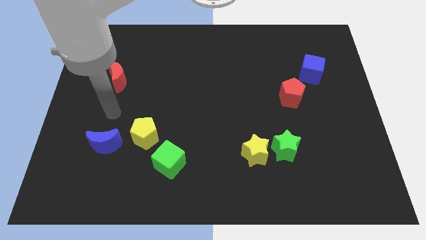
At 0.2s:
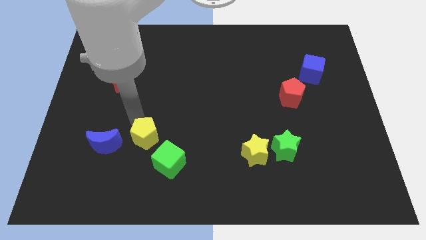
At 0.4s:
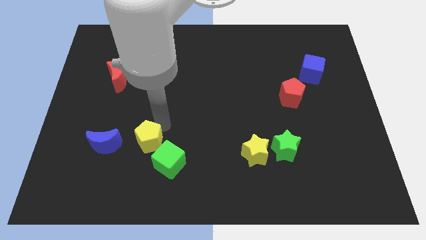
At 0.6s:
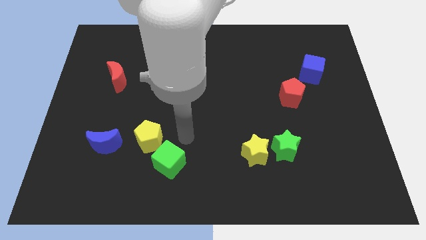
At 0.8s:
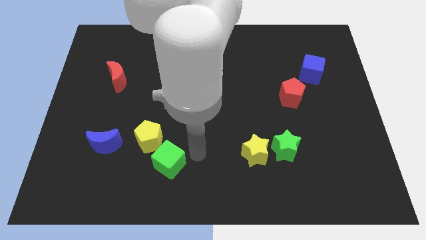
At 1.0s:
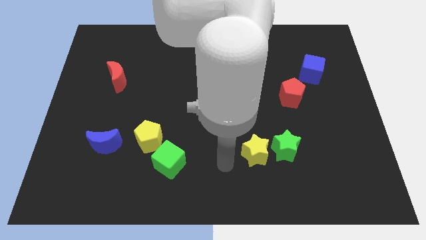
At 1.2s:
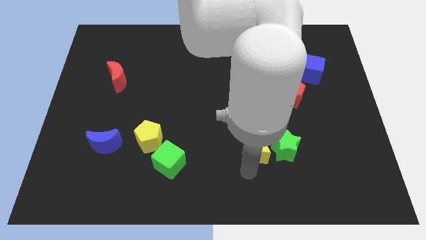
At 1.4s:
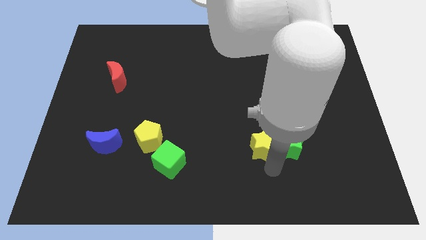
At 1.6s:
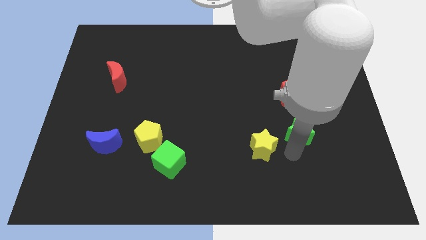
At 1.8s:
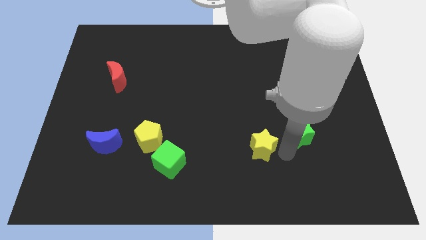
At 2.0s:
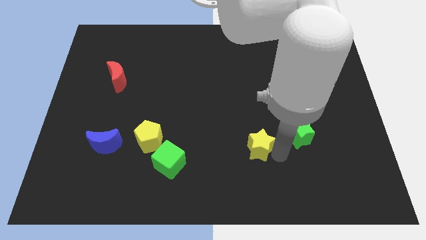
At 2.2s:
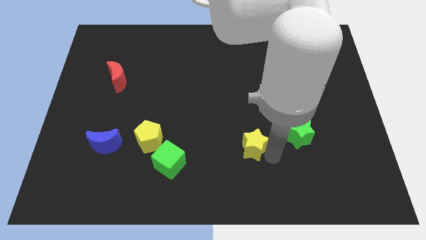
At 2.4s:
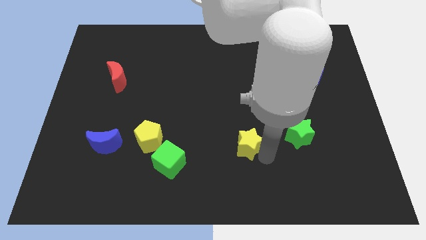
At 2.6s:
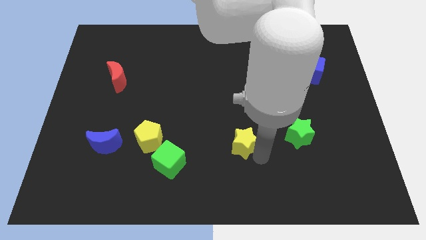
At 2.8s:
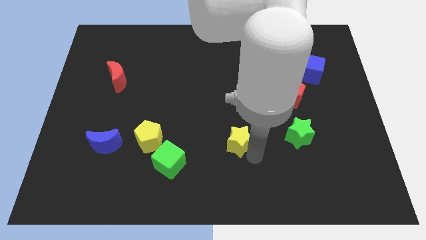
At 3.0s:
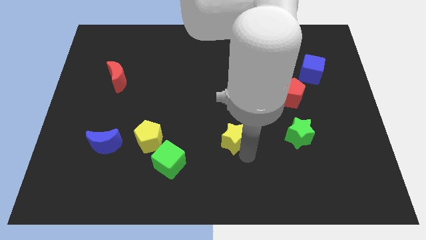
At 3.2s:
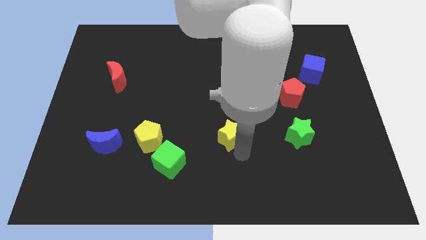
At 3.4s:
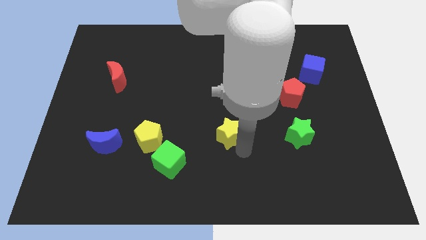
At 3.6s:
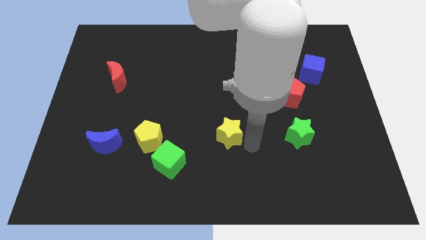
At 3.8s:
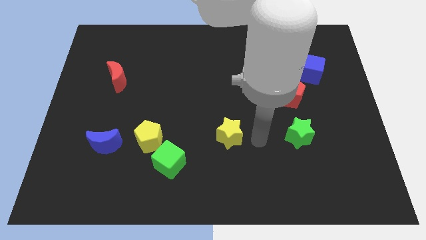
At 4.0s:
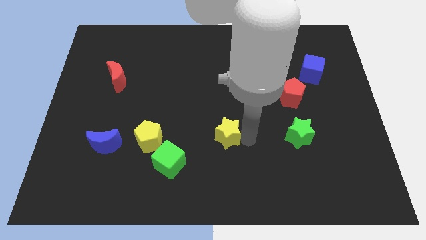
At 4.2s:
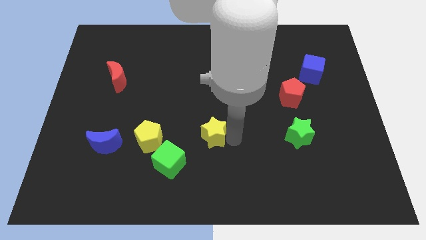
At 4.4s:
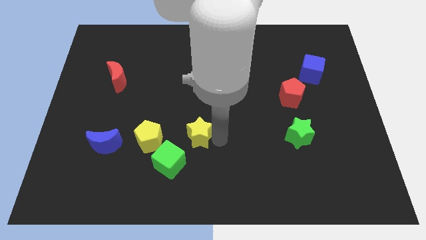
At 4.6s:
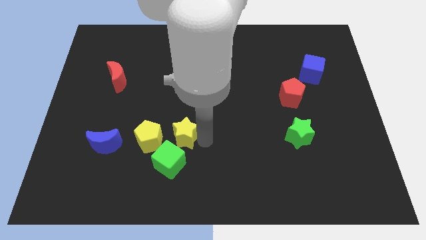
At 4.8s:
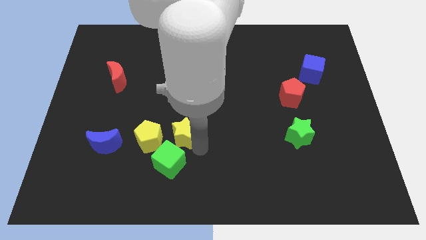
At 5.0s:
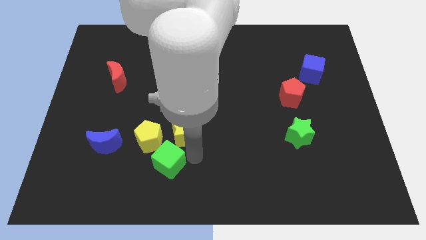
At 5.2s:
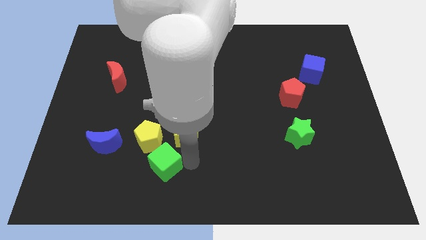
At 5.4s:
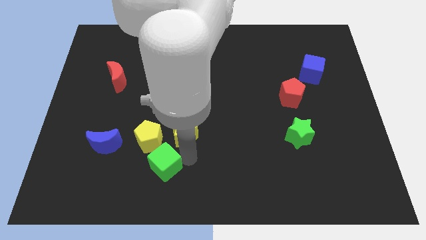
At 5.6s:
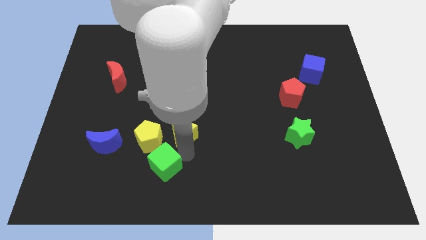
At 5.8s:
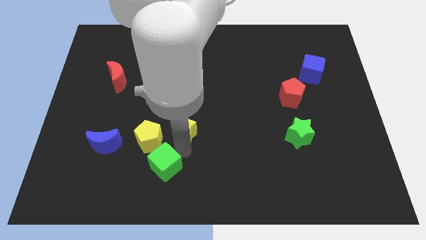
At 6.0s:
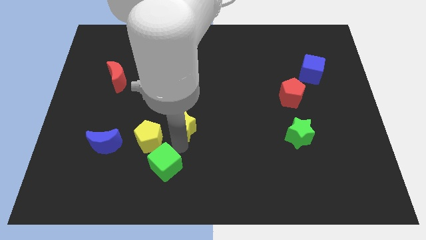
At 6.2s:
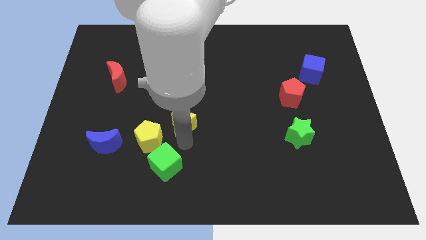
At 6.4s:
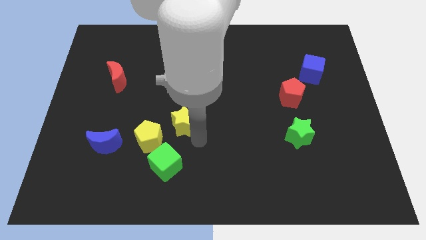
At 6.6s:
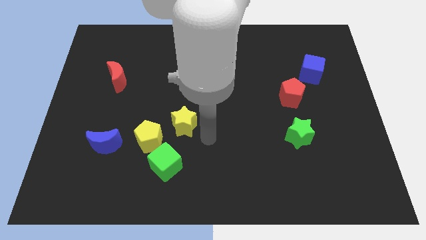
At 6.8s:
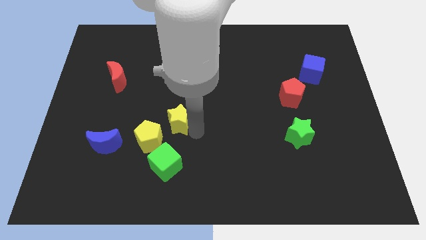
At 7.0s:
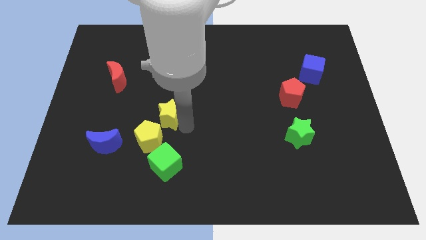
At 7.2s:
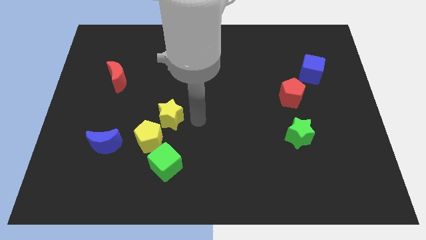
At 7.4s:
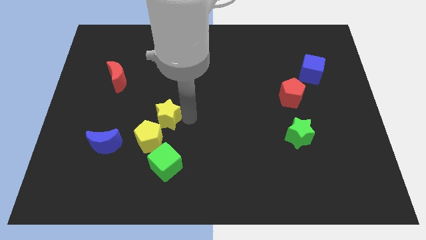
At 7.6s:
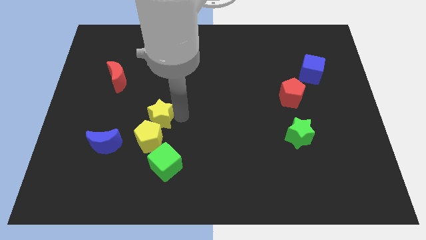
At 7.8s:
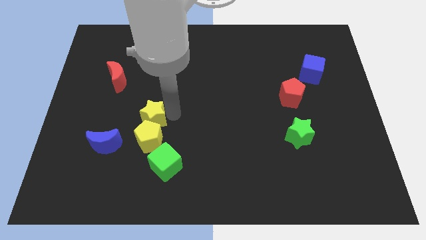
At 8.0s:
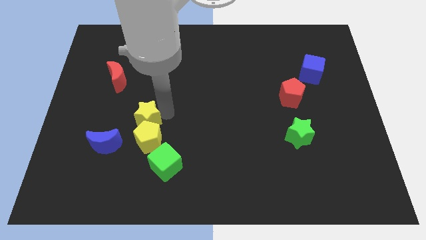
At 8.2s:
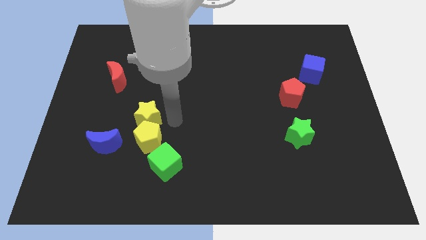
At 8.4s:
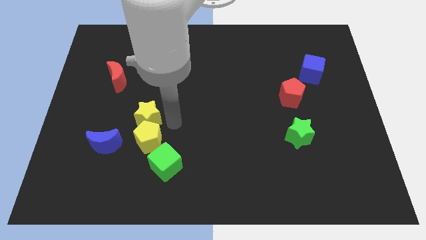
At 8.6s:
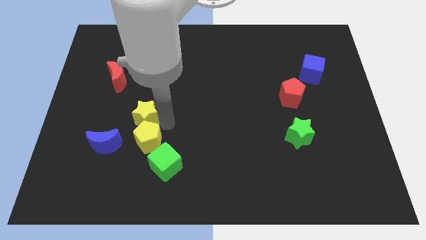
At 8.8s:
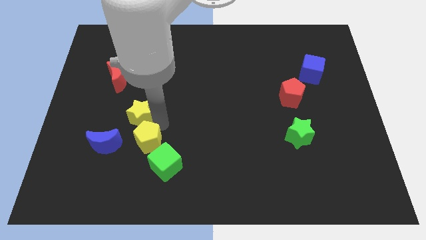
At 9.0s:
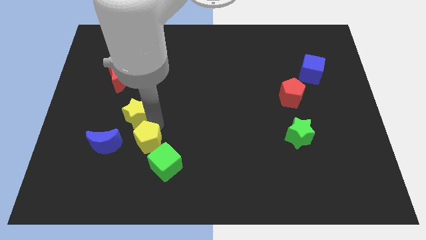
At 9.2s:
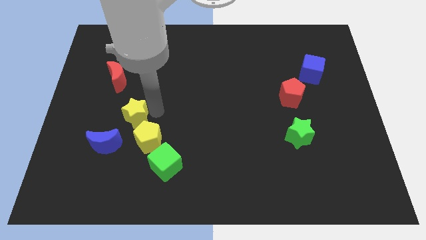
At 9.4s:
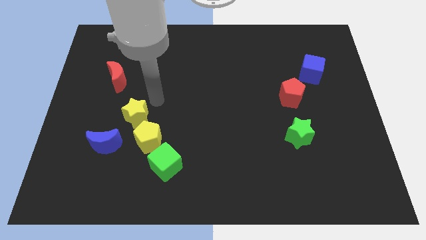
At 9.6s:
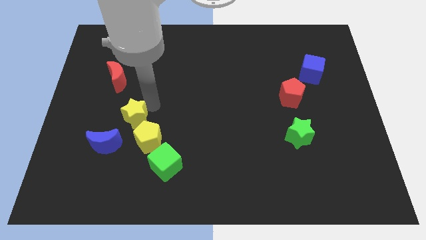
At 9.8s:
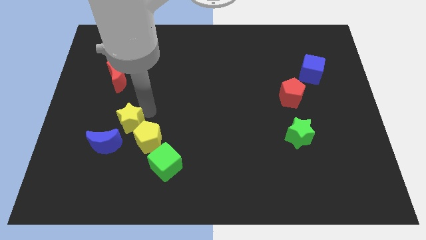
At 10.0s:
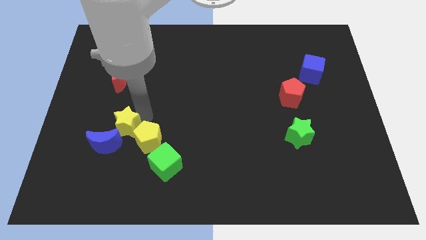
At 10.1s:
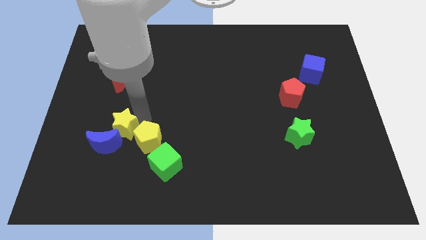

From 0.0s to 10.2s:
put the yellow star towards the blue moon

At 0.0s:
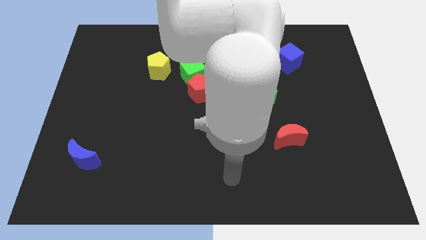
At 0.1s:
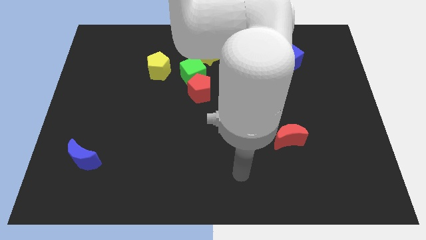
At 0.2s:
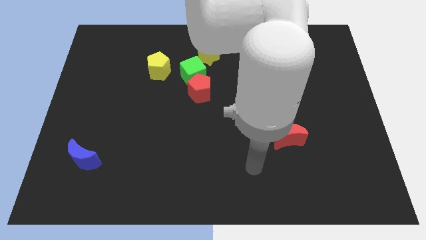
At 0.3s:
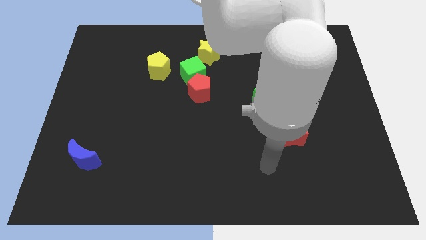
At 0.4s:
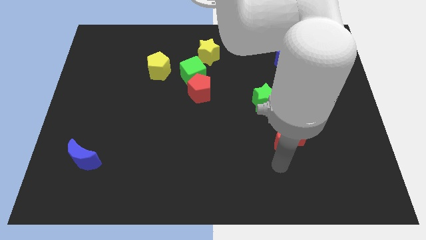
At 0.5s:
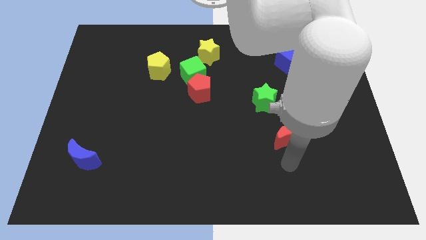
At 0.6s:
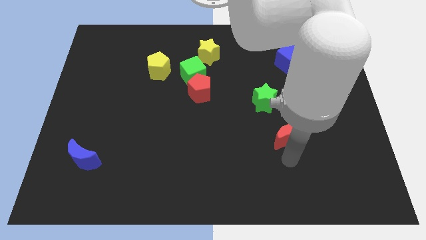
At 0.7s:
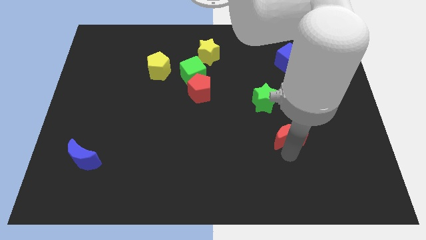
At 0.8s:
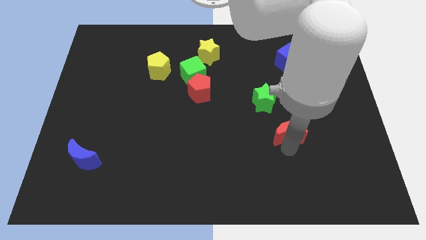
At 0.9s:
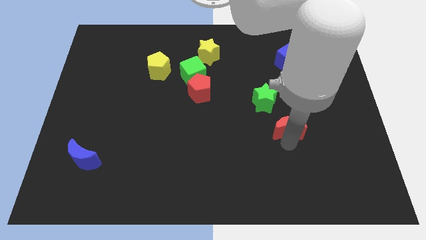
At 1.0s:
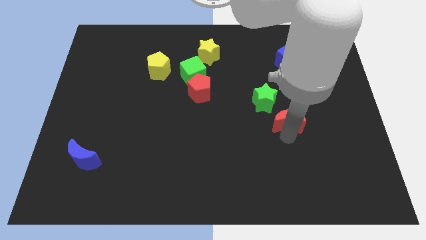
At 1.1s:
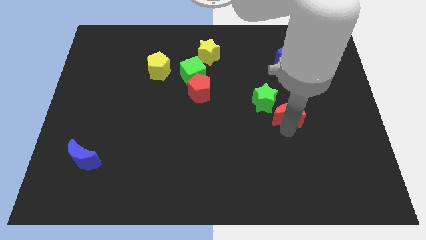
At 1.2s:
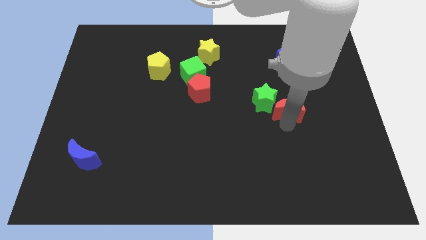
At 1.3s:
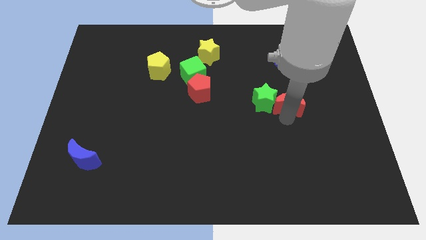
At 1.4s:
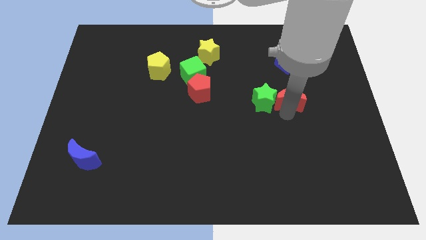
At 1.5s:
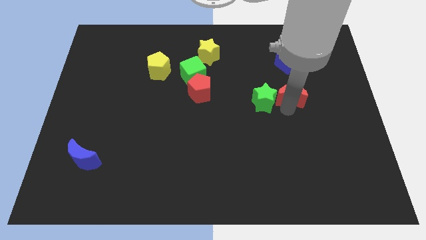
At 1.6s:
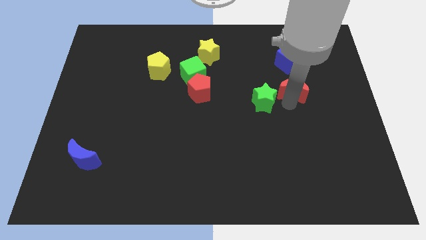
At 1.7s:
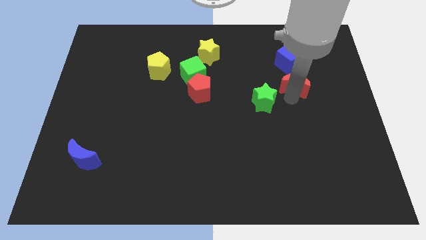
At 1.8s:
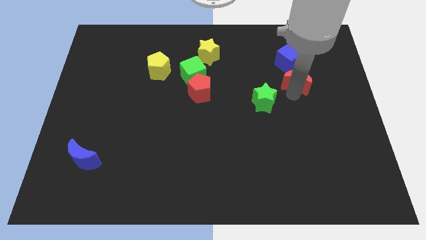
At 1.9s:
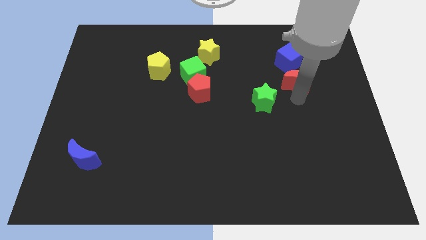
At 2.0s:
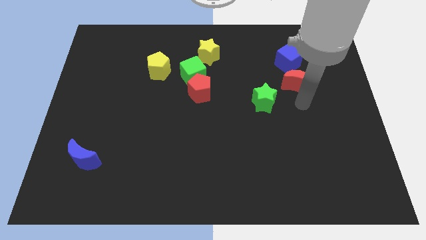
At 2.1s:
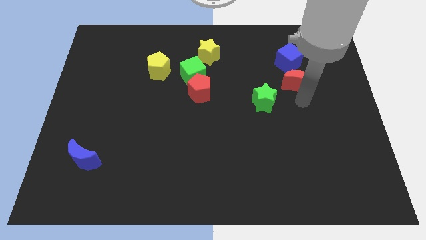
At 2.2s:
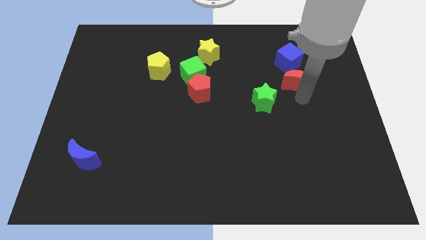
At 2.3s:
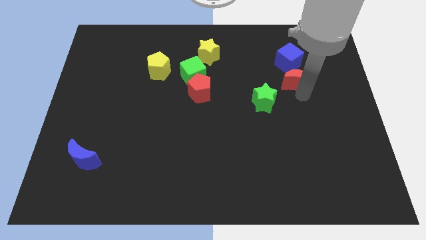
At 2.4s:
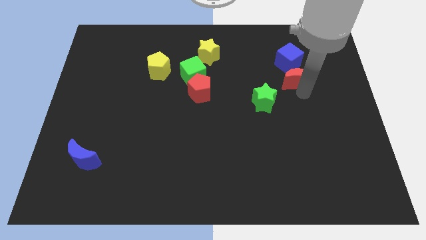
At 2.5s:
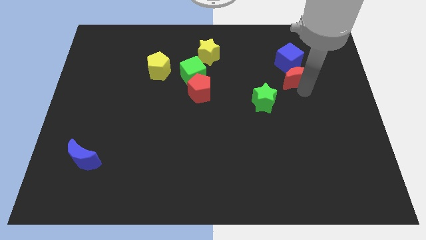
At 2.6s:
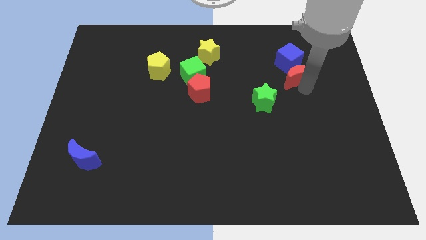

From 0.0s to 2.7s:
move the red moon close to the blue cube
